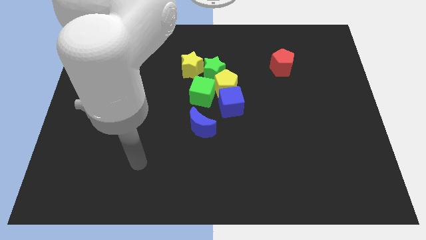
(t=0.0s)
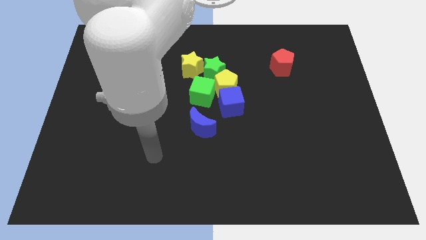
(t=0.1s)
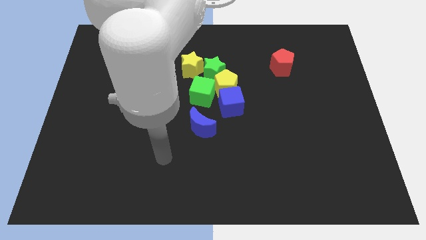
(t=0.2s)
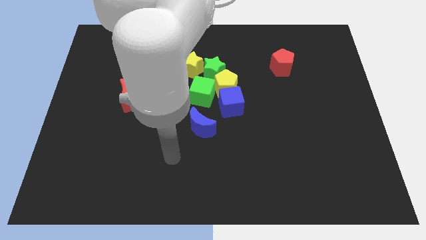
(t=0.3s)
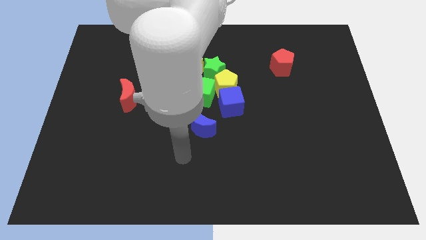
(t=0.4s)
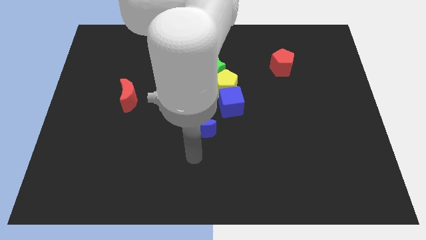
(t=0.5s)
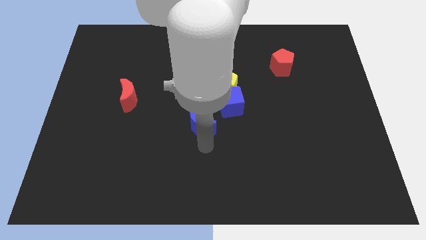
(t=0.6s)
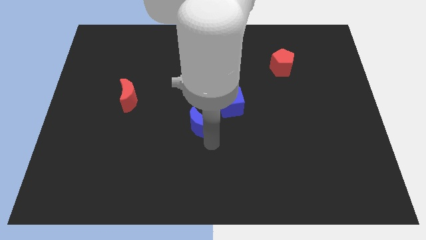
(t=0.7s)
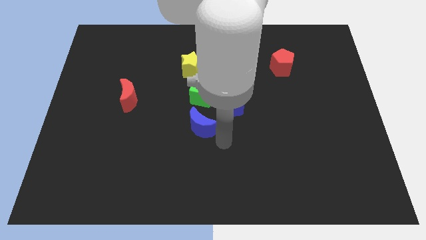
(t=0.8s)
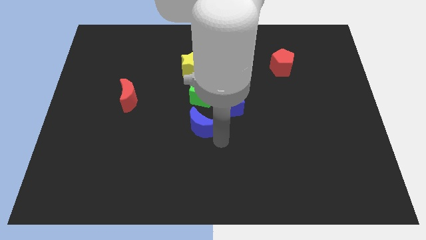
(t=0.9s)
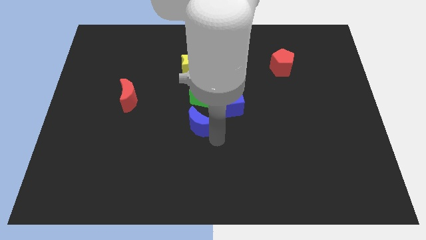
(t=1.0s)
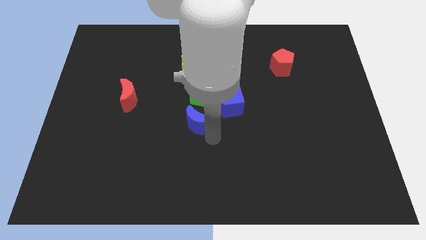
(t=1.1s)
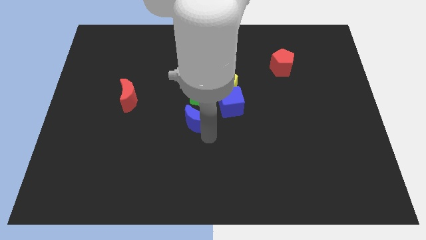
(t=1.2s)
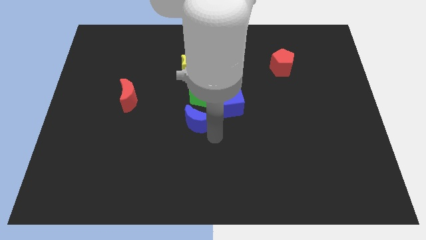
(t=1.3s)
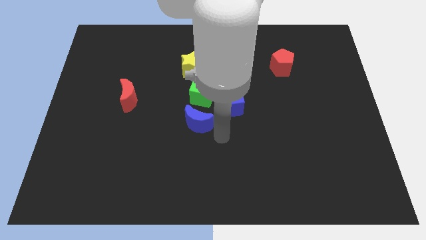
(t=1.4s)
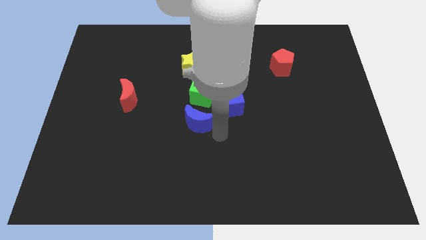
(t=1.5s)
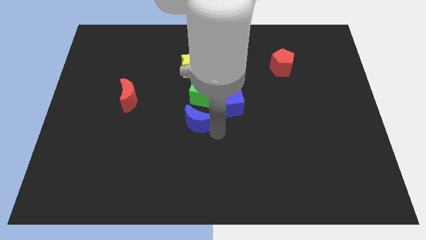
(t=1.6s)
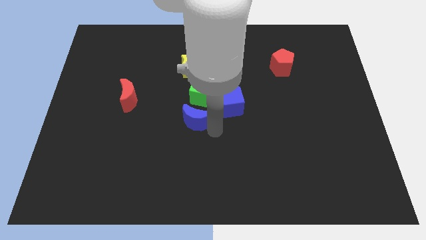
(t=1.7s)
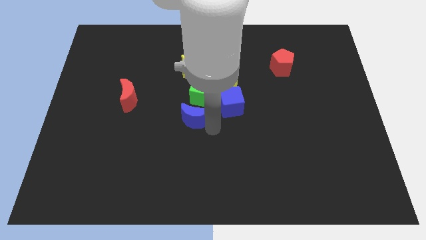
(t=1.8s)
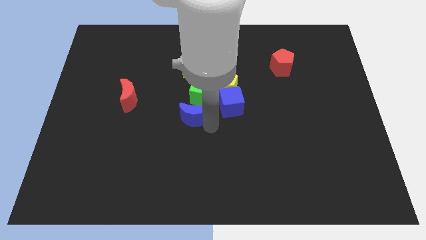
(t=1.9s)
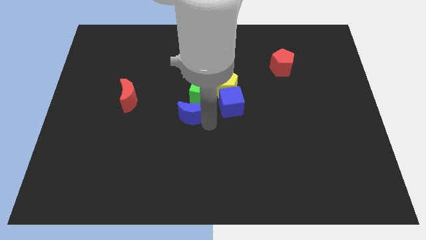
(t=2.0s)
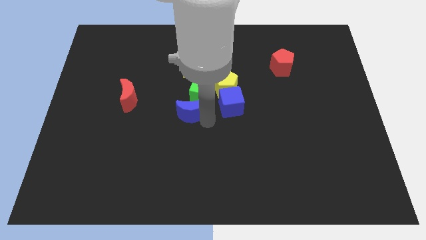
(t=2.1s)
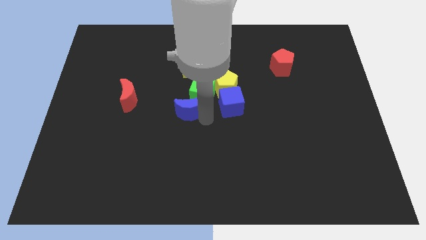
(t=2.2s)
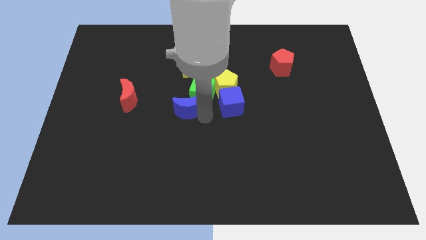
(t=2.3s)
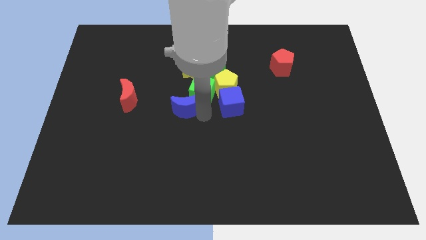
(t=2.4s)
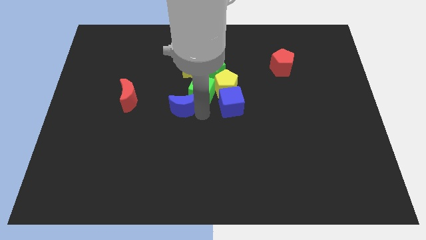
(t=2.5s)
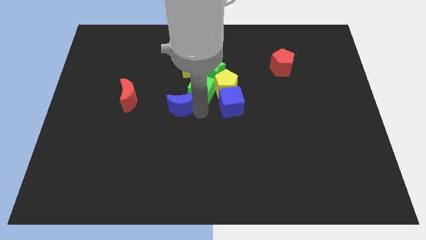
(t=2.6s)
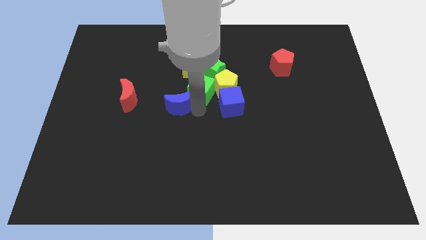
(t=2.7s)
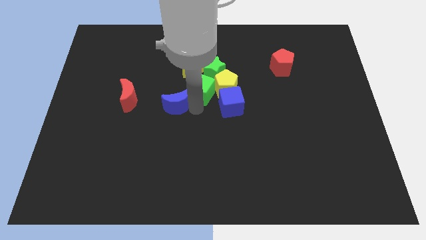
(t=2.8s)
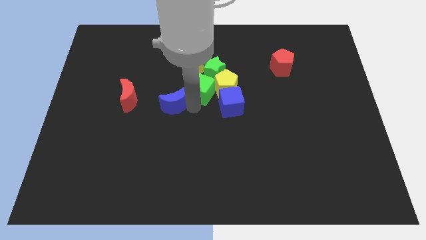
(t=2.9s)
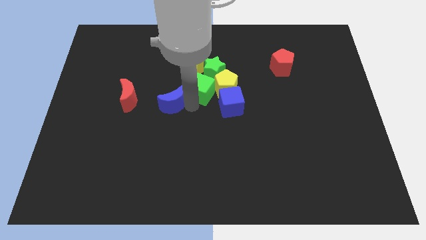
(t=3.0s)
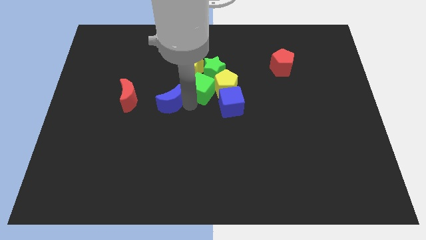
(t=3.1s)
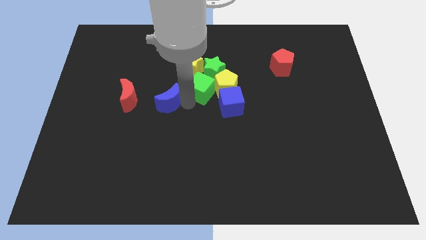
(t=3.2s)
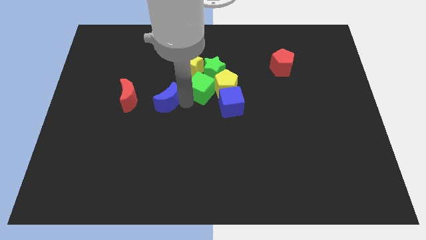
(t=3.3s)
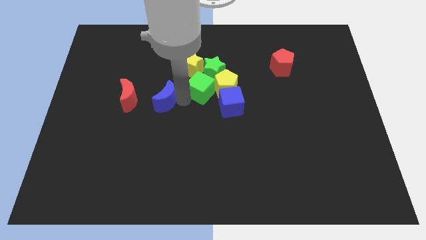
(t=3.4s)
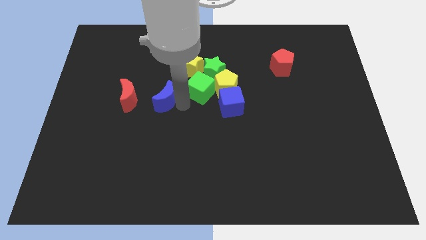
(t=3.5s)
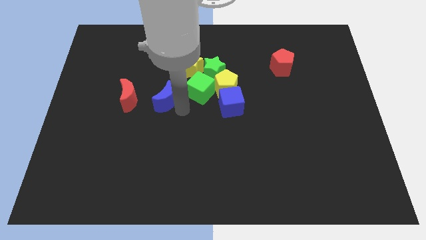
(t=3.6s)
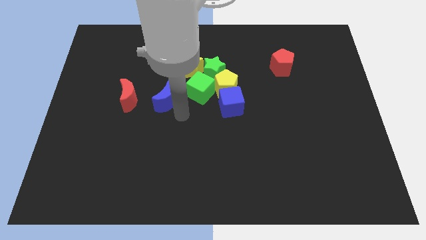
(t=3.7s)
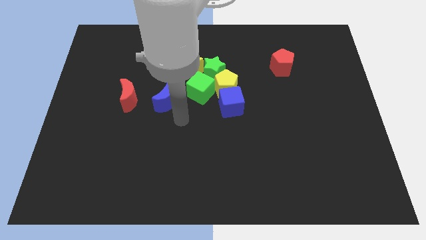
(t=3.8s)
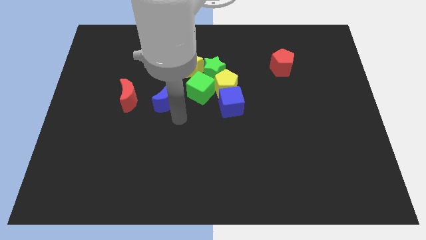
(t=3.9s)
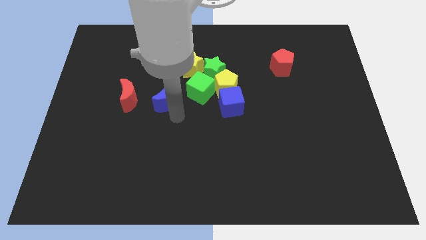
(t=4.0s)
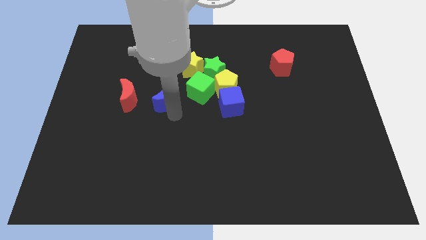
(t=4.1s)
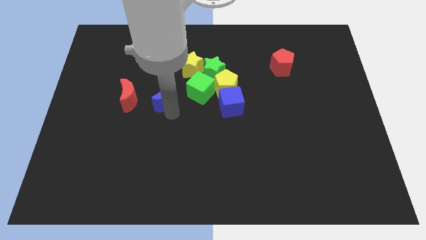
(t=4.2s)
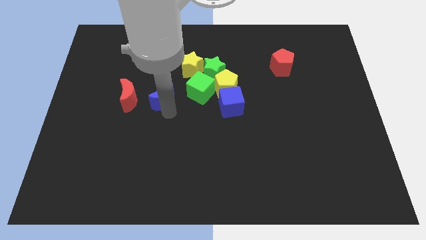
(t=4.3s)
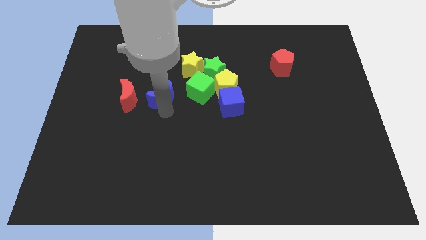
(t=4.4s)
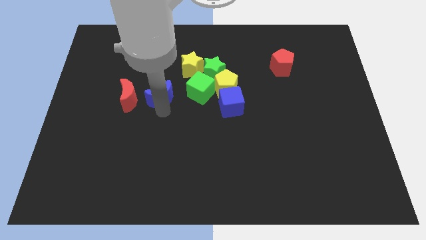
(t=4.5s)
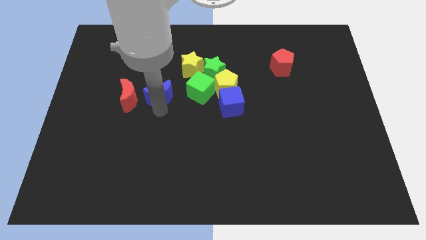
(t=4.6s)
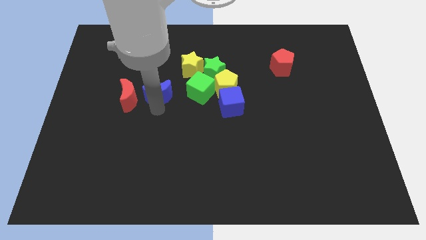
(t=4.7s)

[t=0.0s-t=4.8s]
move the blue moon to the top right of the red moon

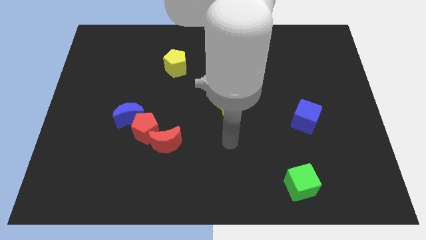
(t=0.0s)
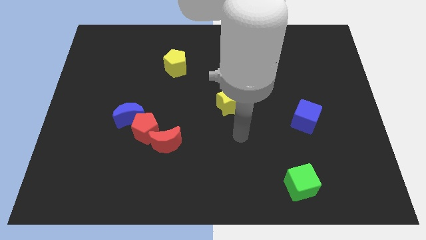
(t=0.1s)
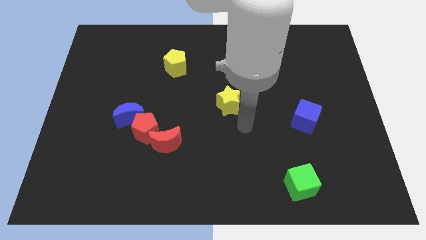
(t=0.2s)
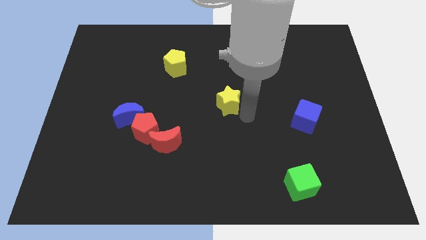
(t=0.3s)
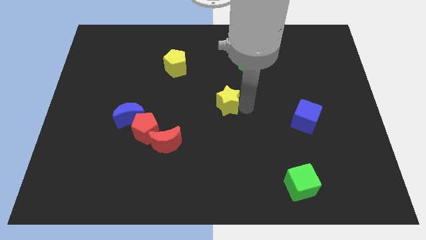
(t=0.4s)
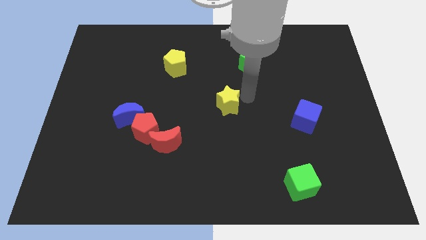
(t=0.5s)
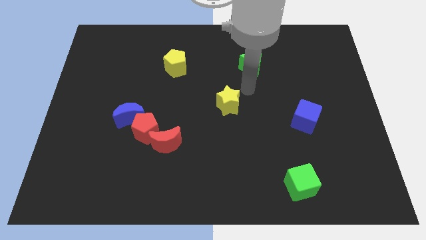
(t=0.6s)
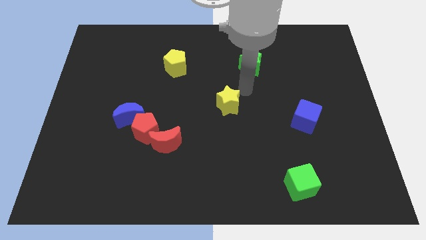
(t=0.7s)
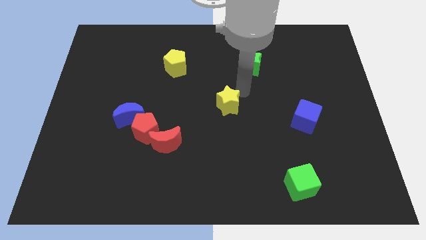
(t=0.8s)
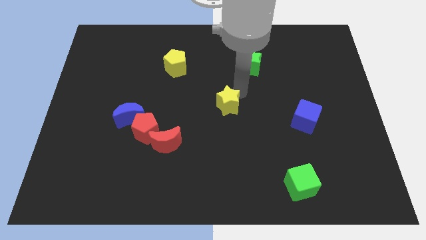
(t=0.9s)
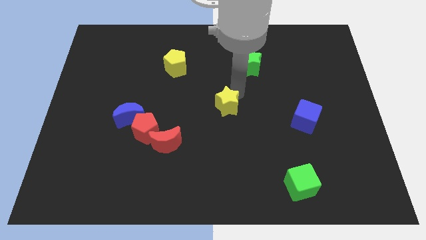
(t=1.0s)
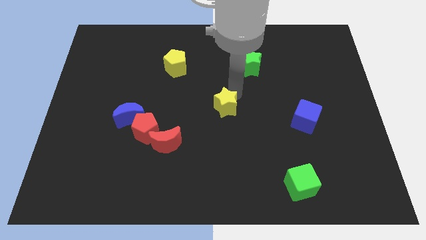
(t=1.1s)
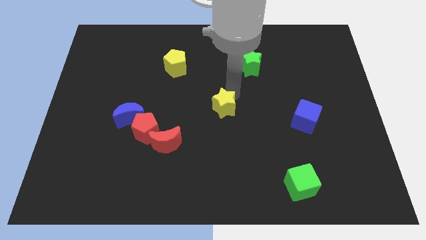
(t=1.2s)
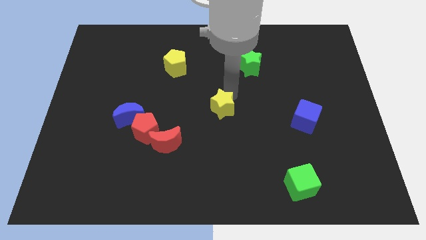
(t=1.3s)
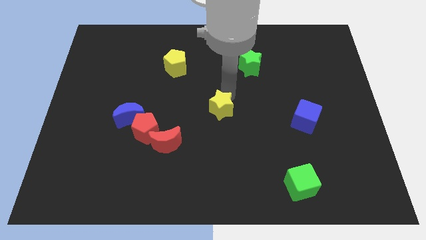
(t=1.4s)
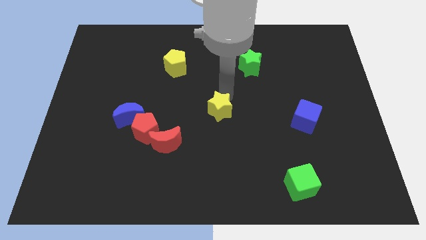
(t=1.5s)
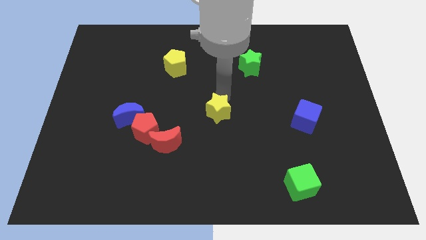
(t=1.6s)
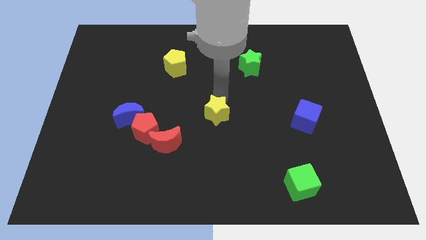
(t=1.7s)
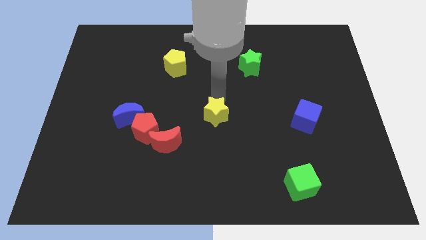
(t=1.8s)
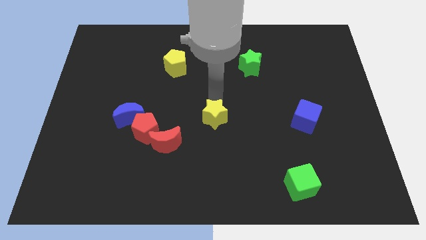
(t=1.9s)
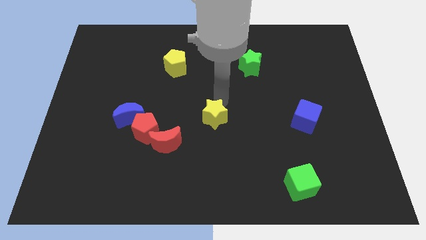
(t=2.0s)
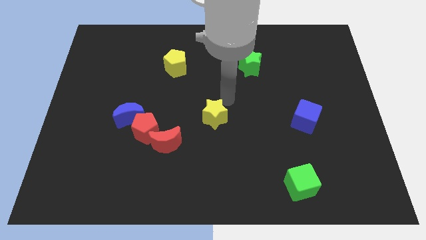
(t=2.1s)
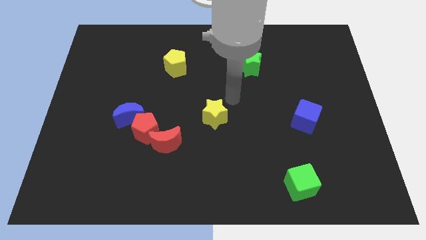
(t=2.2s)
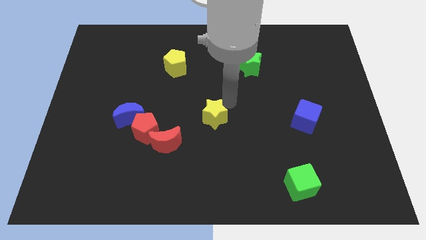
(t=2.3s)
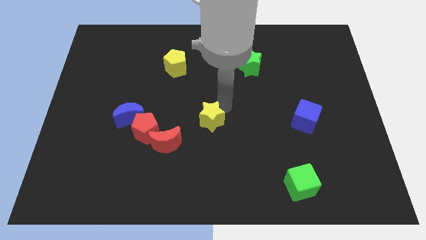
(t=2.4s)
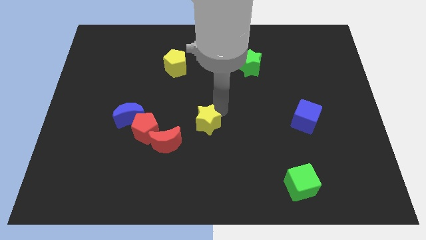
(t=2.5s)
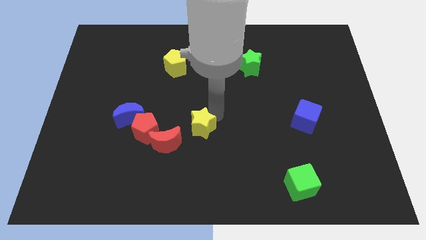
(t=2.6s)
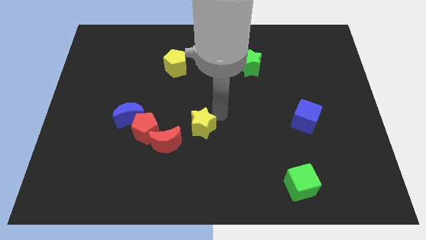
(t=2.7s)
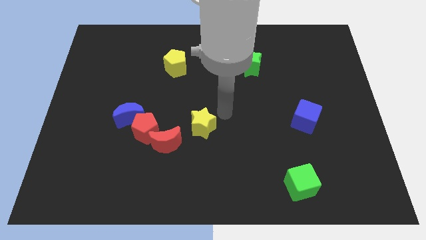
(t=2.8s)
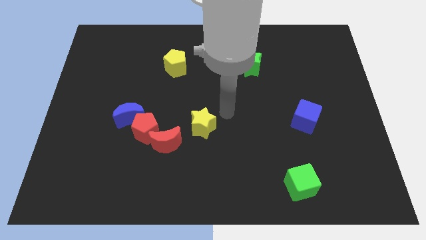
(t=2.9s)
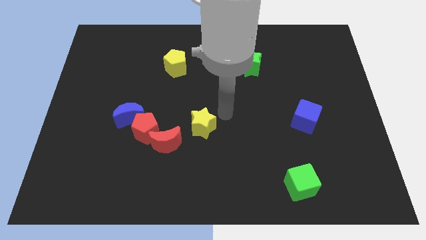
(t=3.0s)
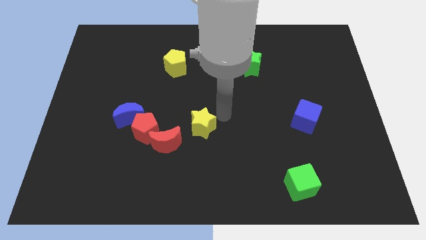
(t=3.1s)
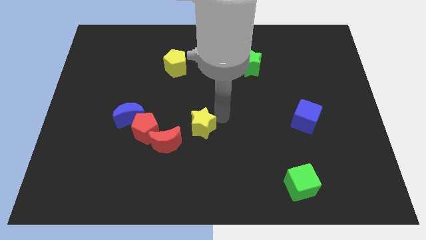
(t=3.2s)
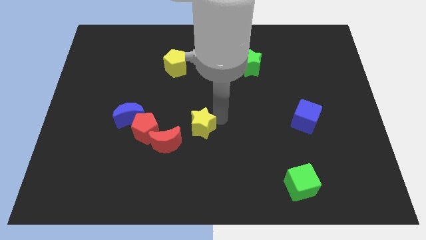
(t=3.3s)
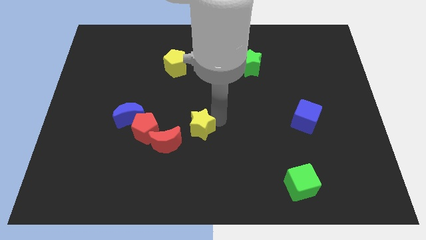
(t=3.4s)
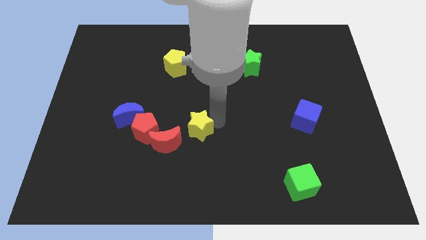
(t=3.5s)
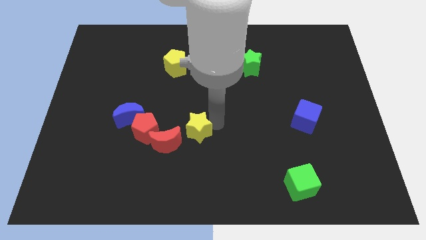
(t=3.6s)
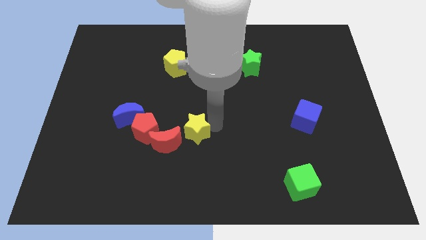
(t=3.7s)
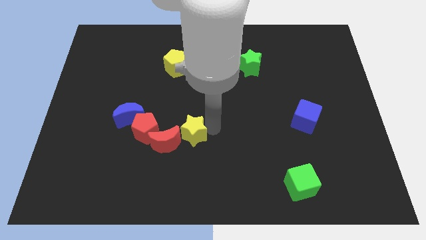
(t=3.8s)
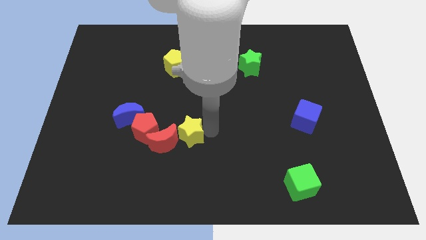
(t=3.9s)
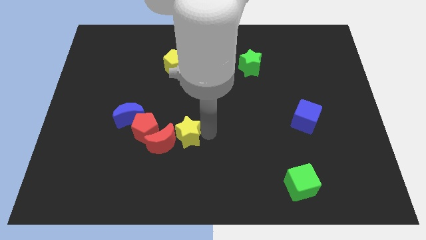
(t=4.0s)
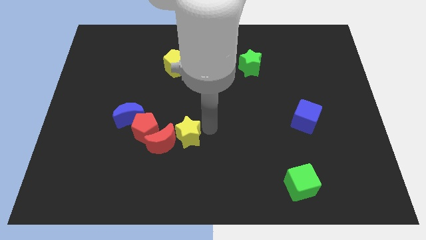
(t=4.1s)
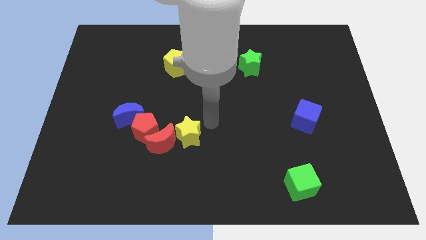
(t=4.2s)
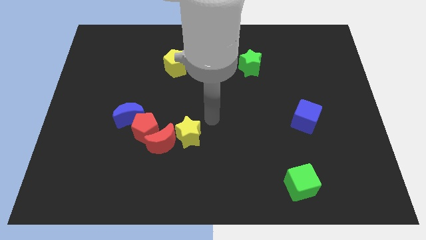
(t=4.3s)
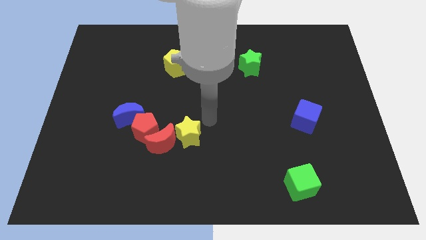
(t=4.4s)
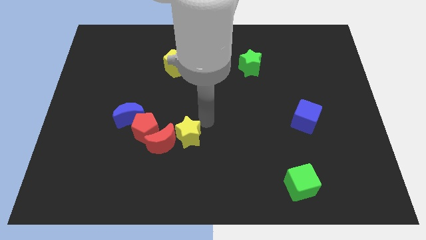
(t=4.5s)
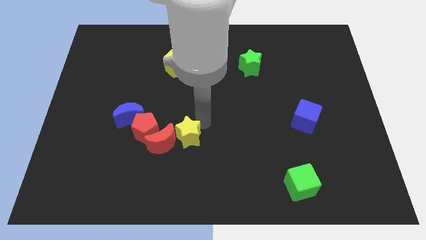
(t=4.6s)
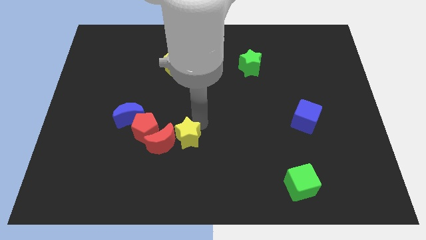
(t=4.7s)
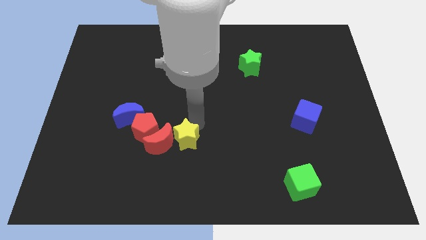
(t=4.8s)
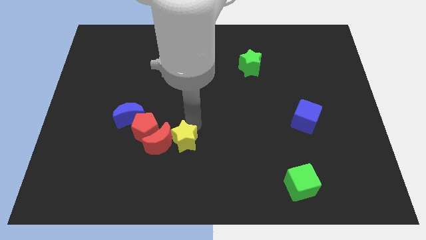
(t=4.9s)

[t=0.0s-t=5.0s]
put the yellow star to the bottom right side of the red pentagon
